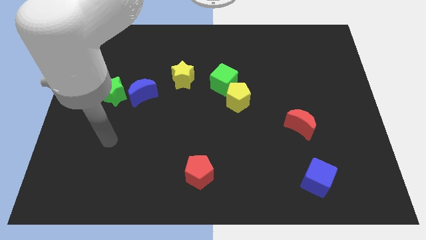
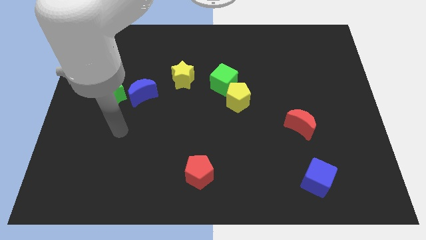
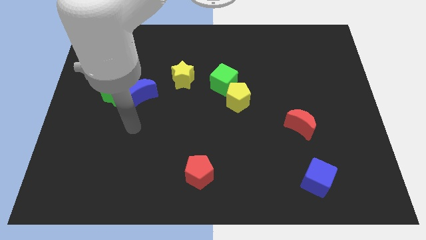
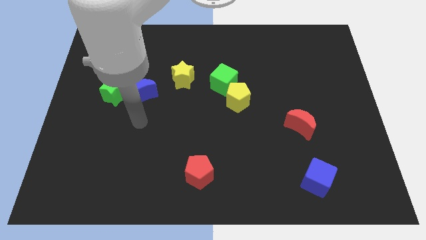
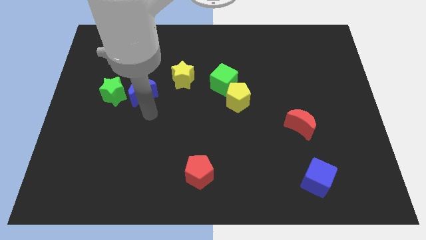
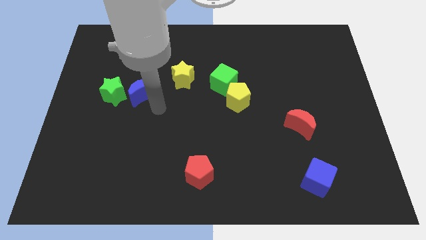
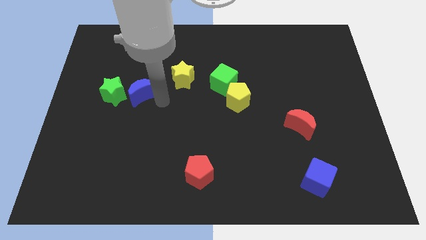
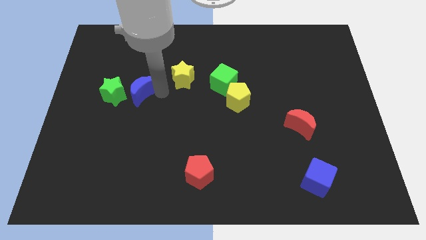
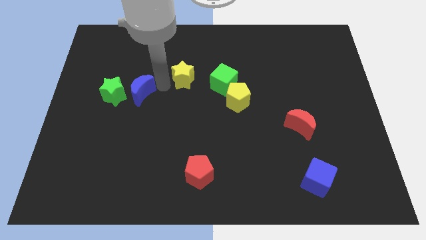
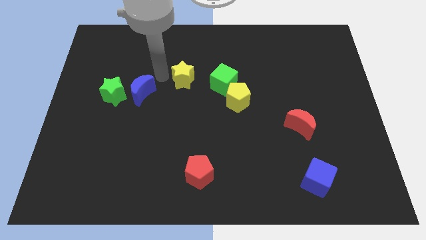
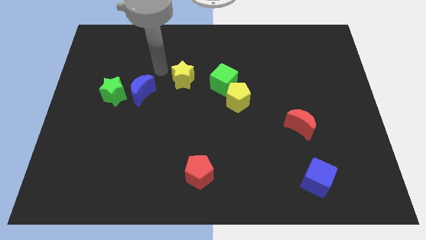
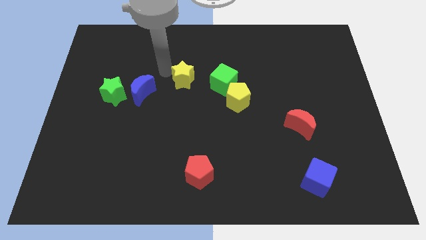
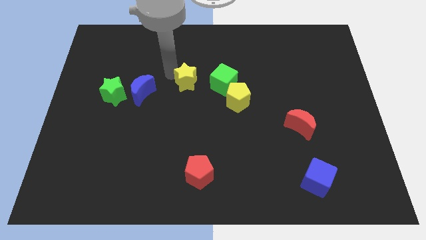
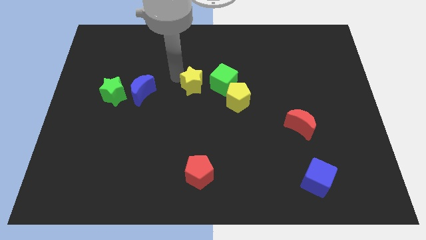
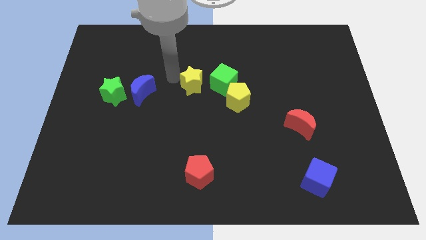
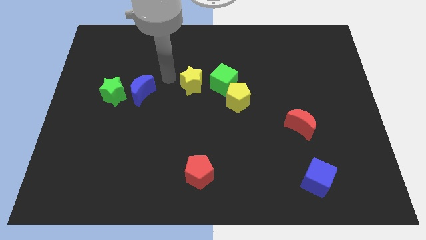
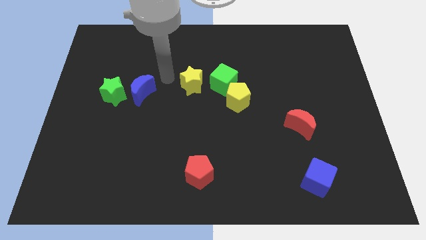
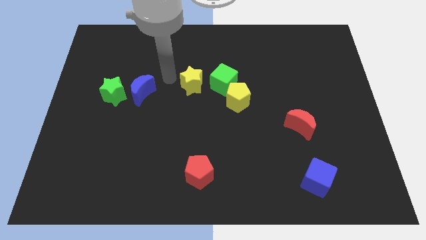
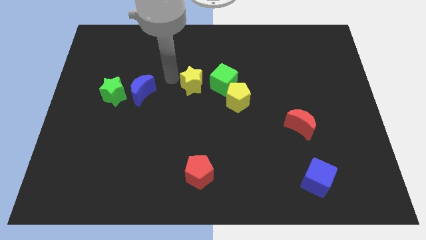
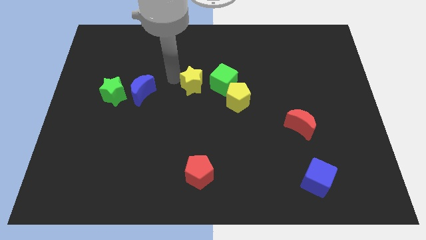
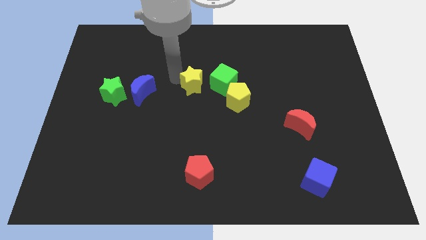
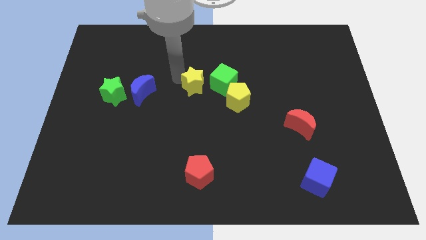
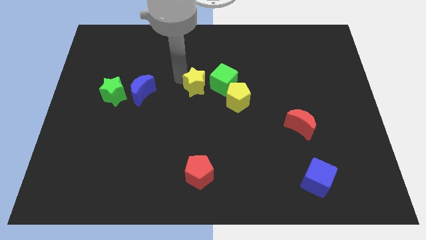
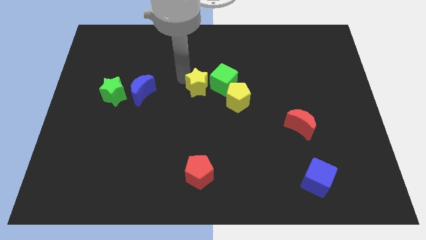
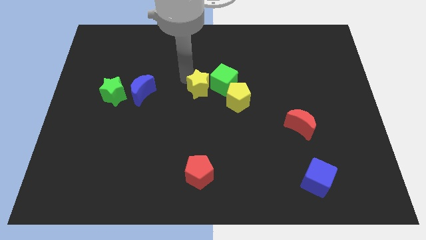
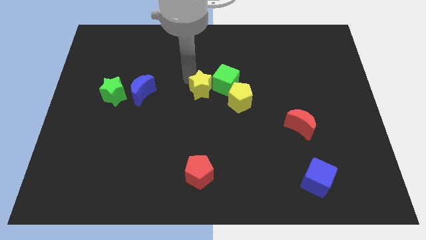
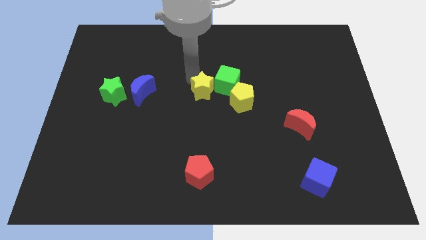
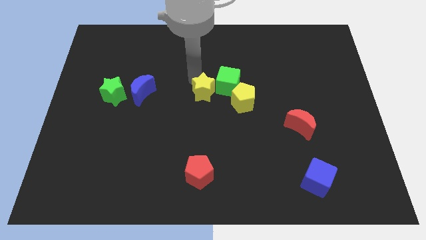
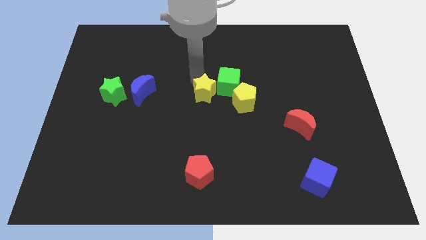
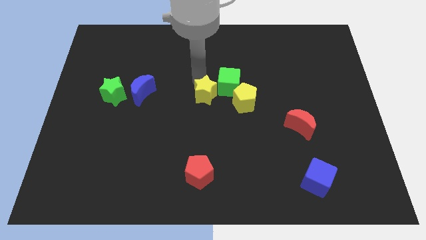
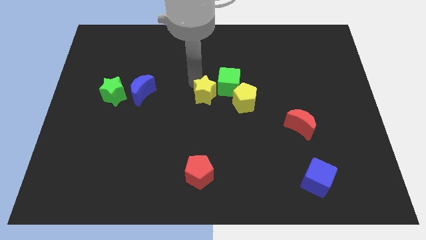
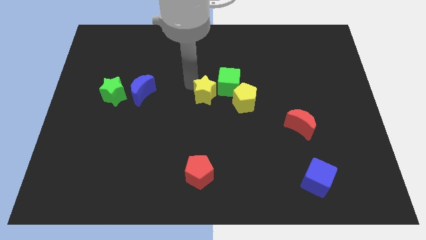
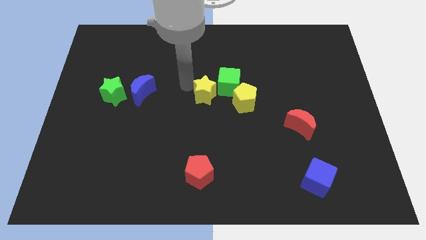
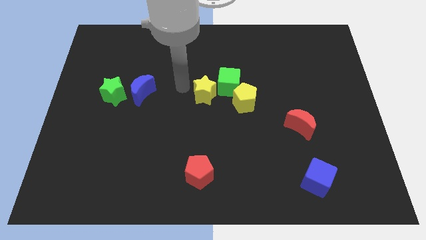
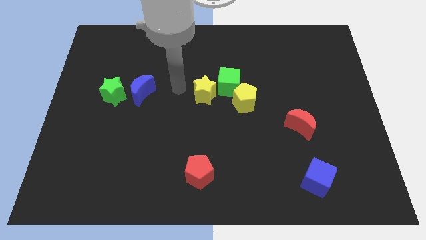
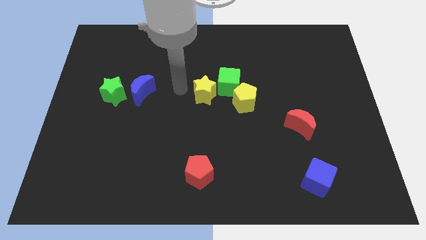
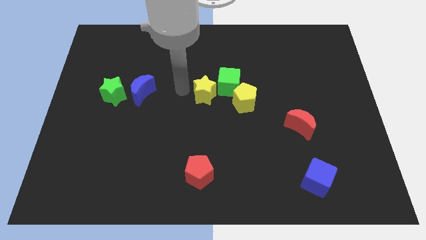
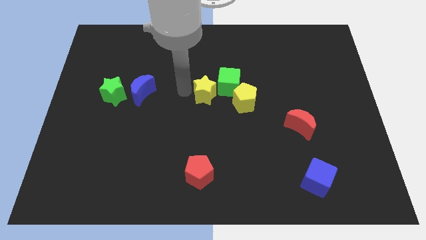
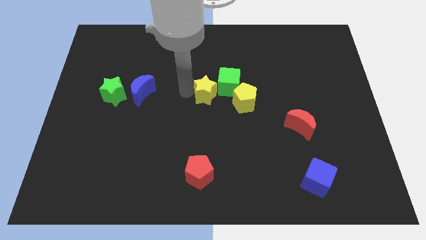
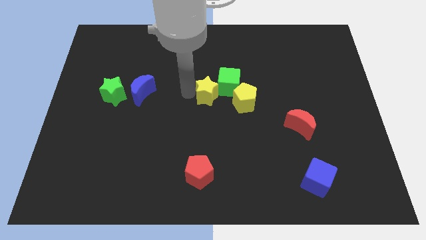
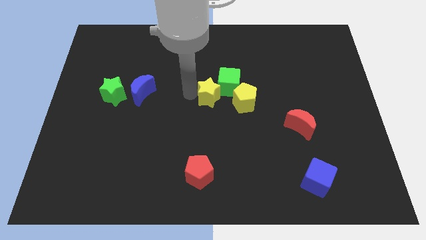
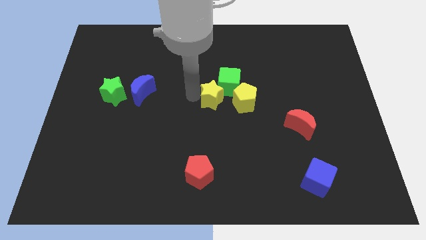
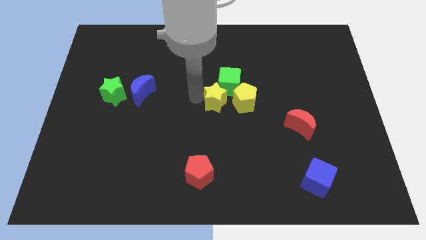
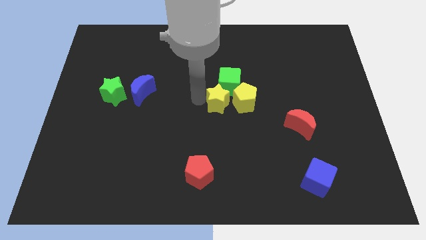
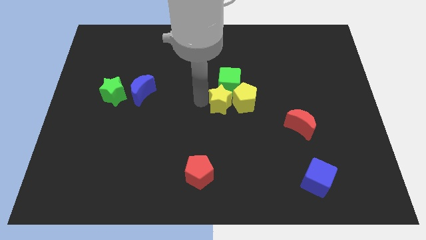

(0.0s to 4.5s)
move the yellow star next to the yellow pentagon

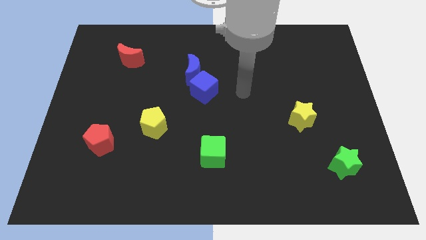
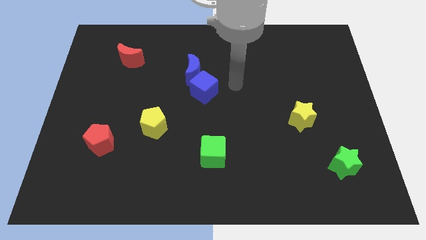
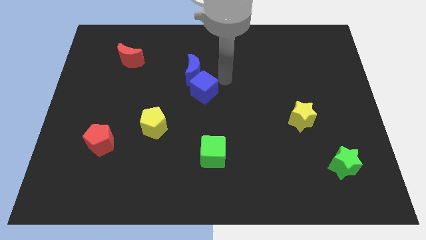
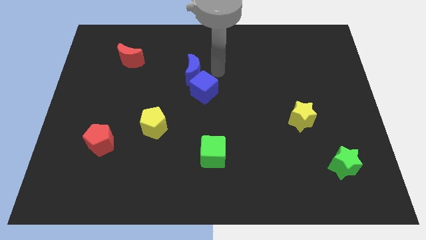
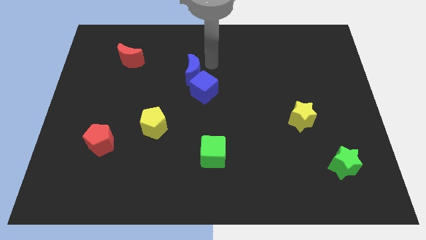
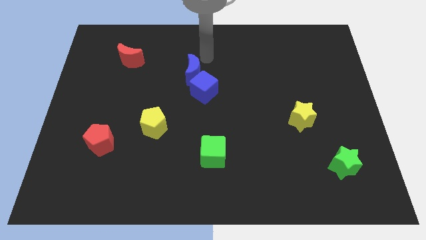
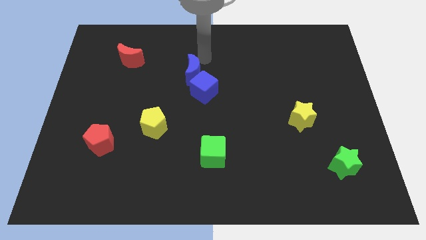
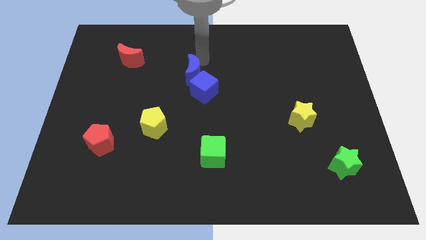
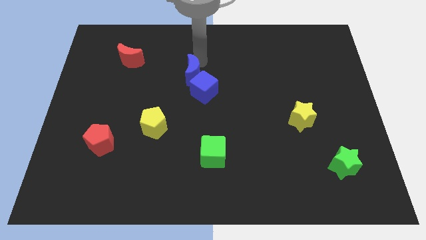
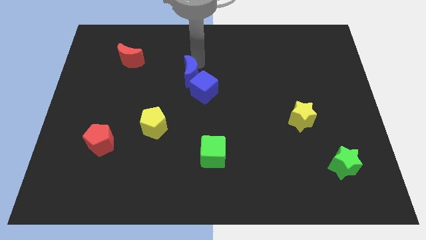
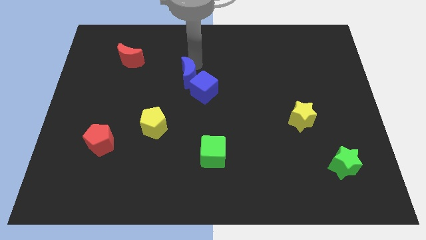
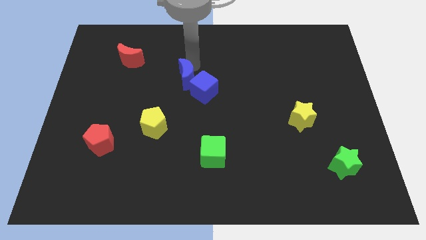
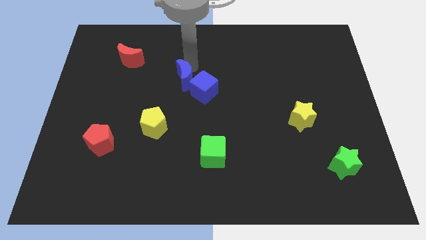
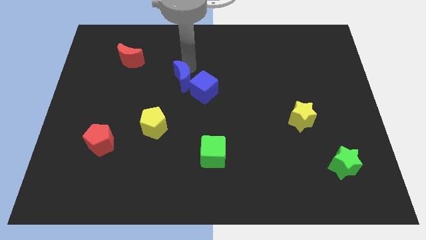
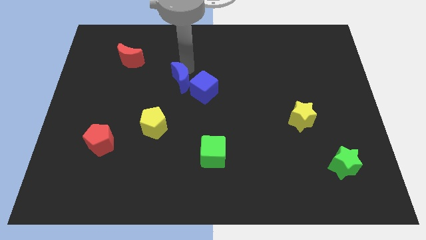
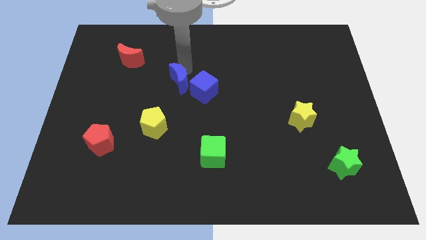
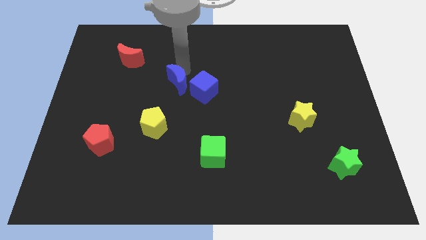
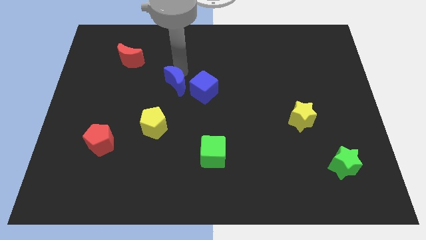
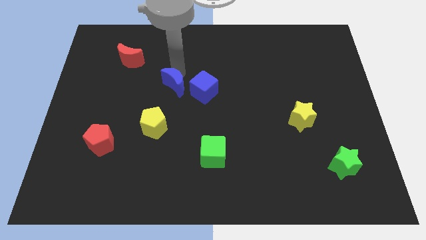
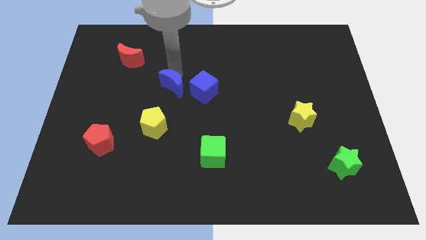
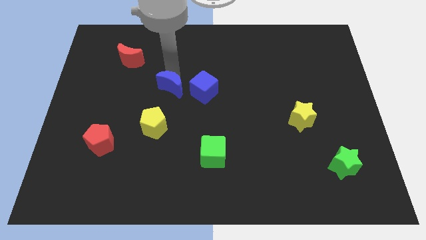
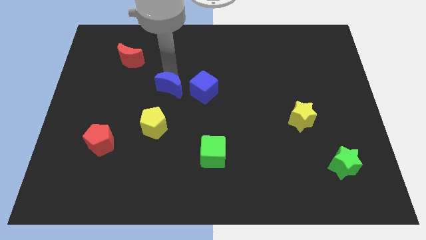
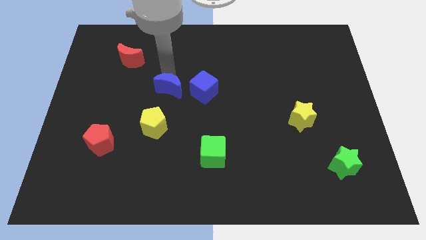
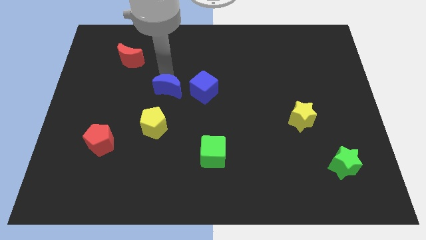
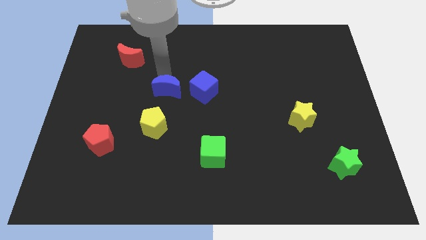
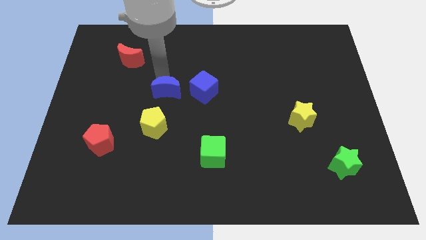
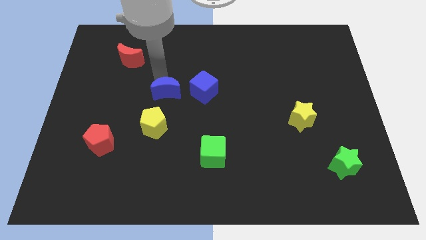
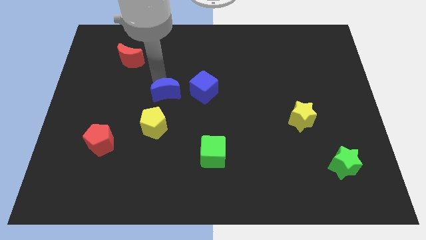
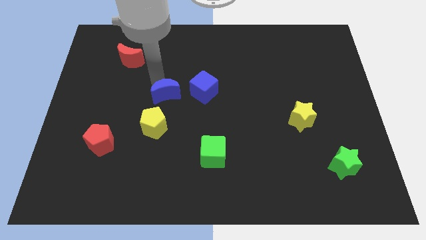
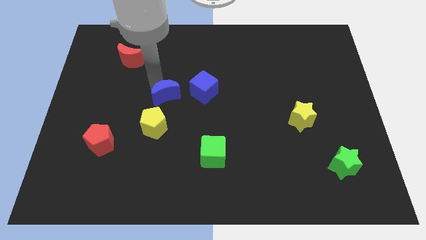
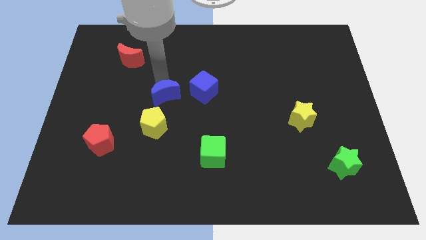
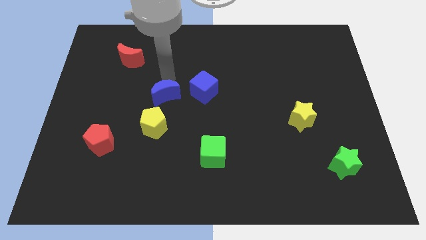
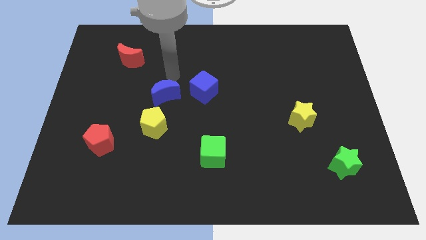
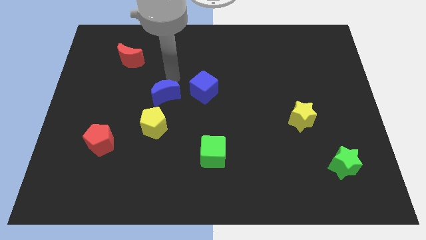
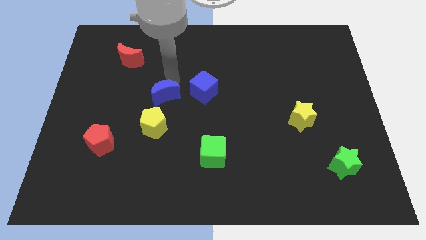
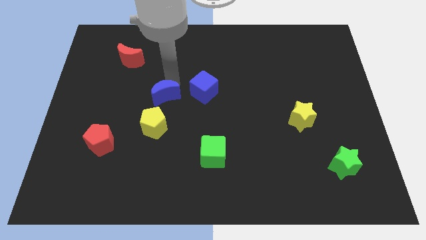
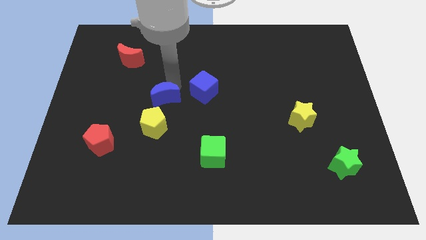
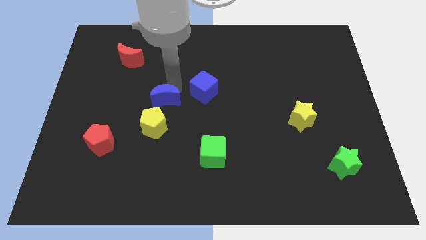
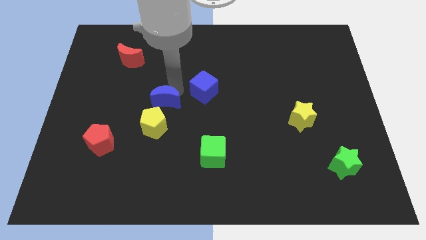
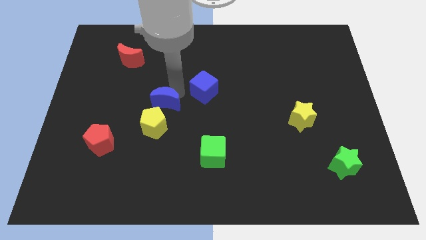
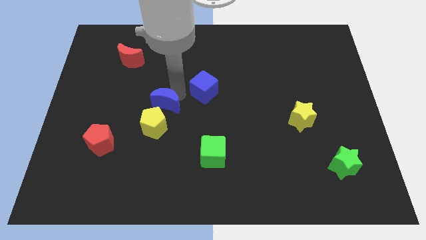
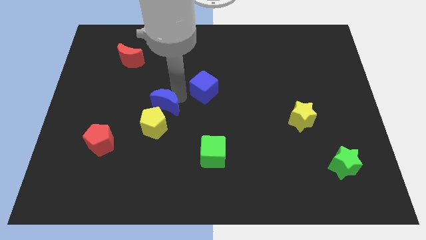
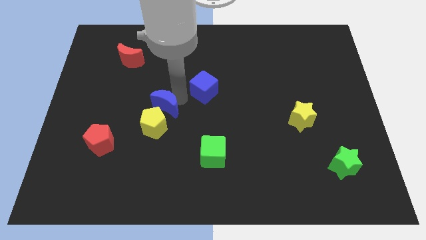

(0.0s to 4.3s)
put the blue moon next to the yellow pentagon
